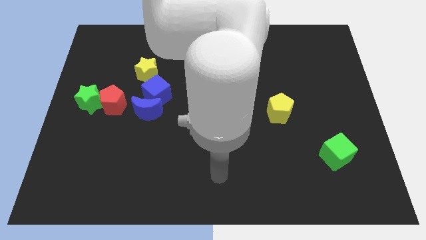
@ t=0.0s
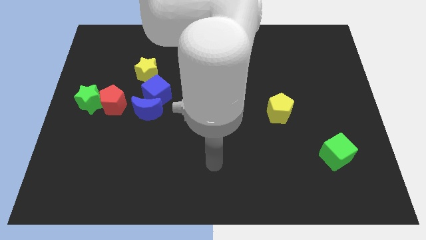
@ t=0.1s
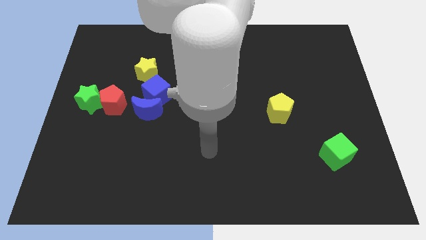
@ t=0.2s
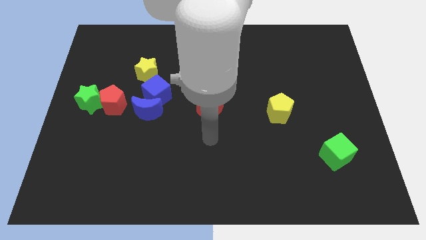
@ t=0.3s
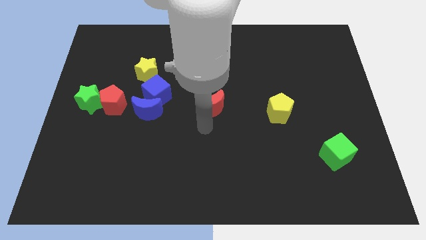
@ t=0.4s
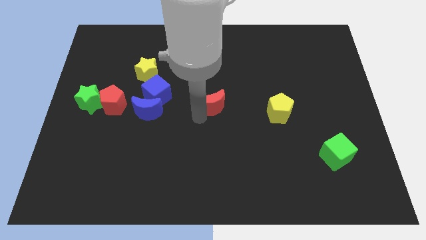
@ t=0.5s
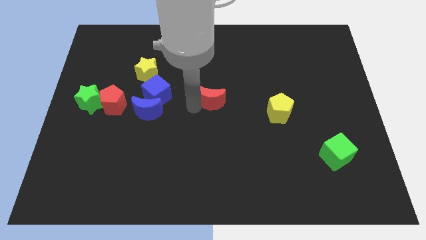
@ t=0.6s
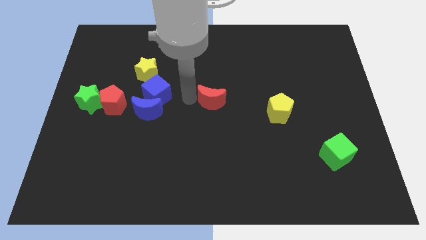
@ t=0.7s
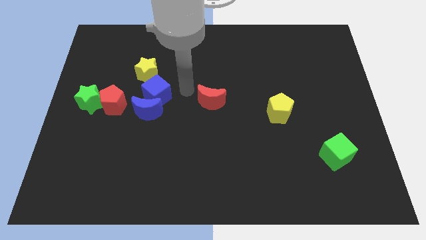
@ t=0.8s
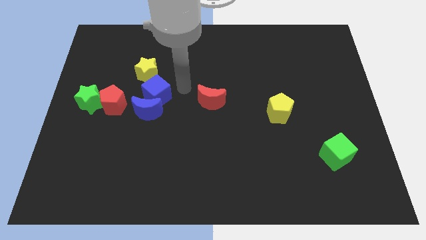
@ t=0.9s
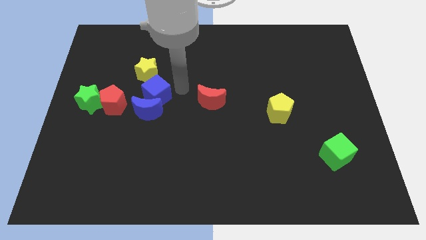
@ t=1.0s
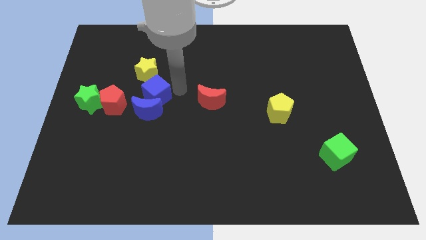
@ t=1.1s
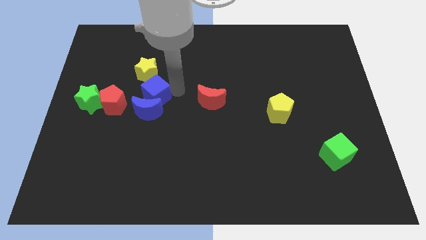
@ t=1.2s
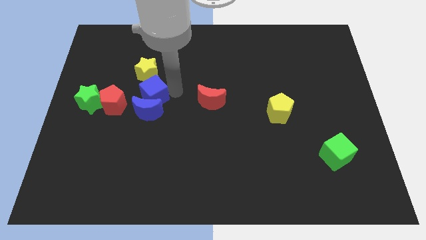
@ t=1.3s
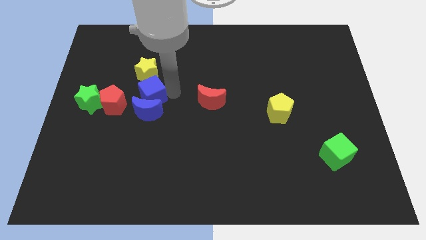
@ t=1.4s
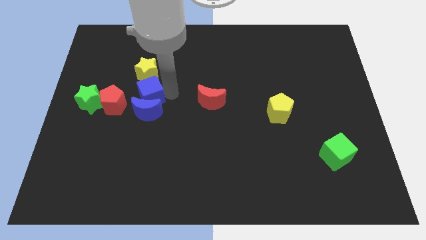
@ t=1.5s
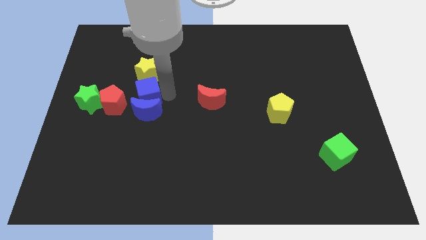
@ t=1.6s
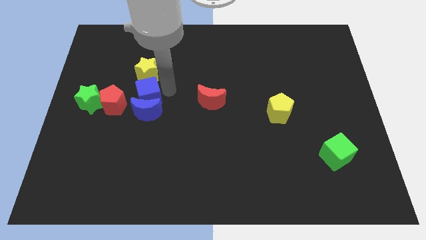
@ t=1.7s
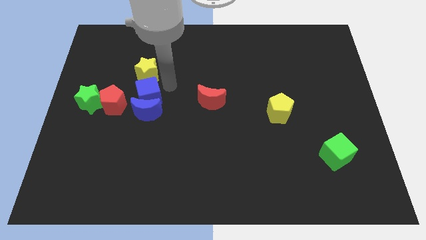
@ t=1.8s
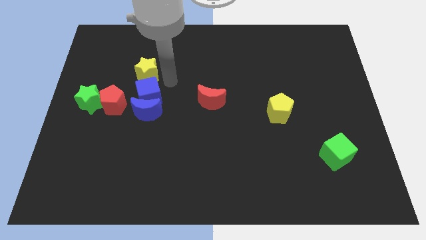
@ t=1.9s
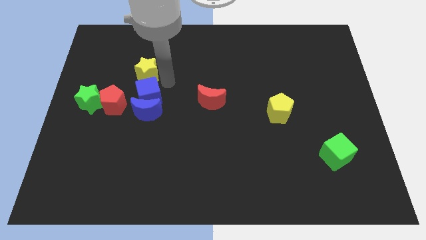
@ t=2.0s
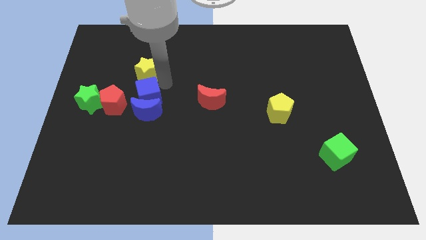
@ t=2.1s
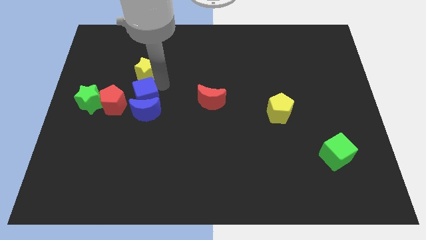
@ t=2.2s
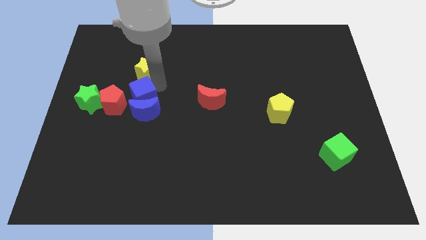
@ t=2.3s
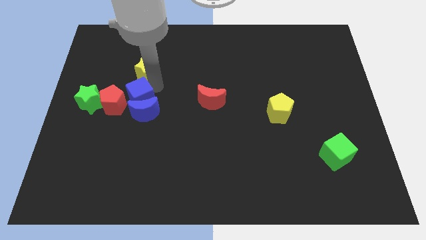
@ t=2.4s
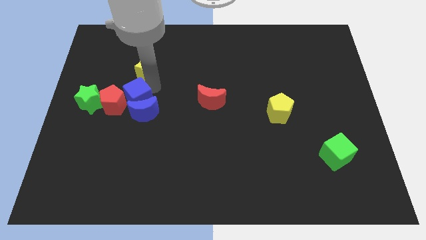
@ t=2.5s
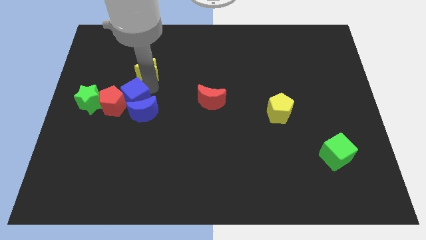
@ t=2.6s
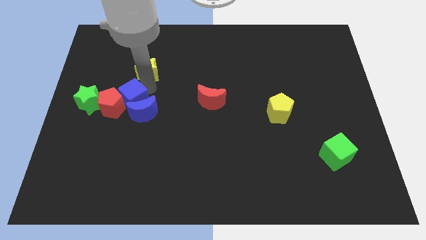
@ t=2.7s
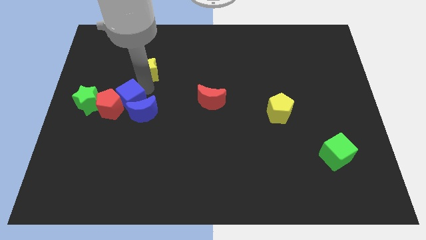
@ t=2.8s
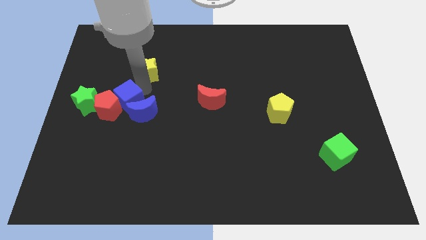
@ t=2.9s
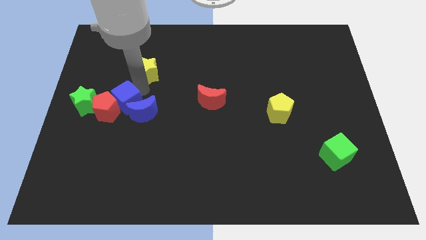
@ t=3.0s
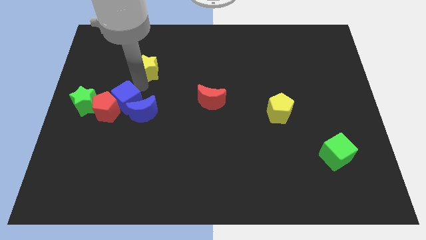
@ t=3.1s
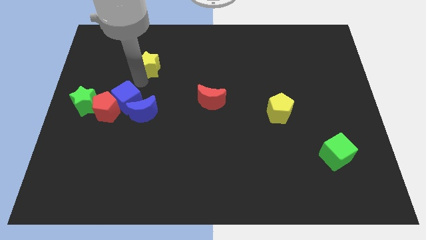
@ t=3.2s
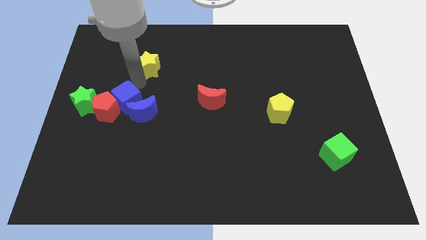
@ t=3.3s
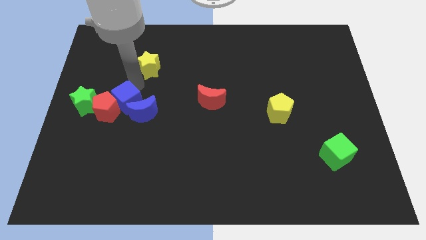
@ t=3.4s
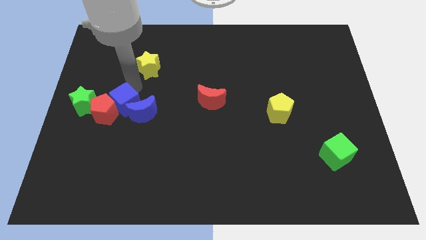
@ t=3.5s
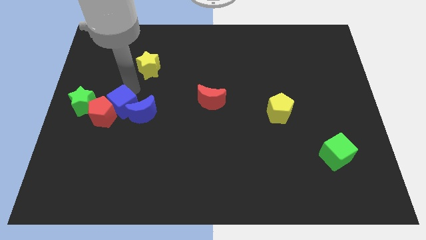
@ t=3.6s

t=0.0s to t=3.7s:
slide the blue cube down and to the left diagonally a bit

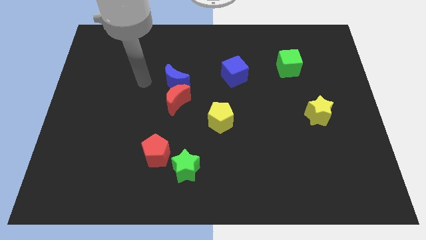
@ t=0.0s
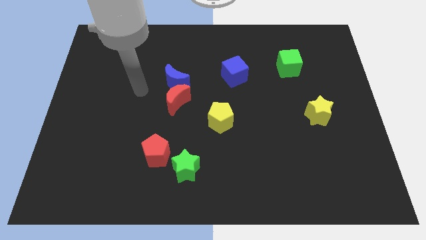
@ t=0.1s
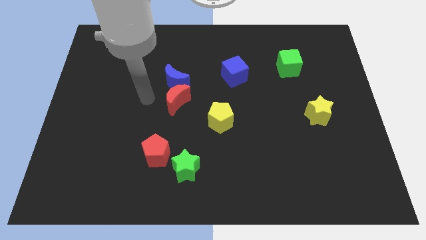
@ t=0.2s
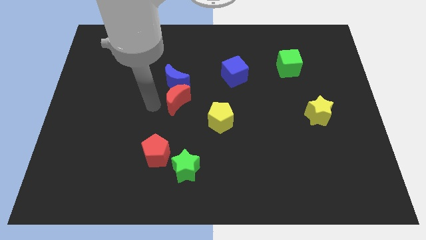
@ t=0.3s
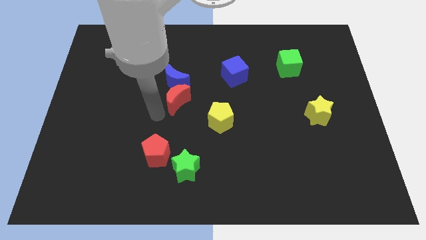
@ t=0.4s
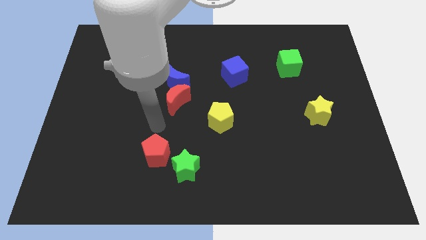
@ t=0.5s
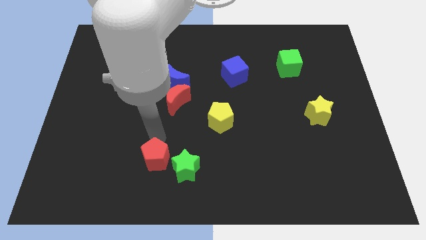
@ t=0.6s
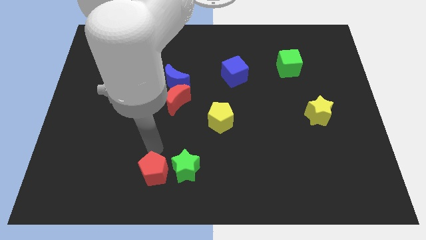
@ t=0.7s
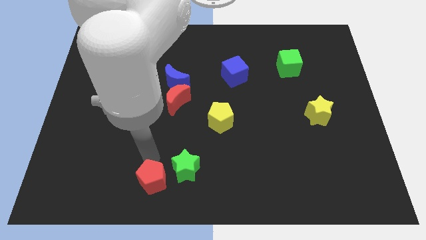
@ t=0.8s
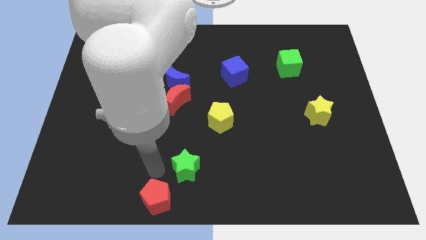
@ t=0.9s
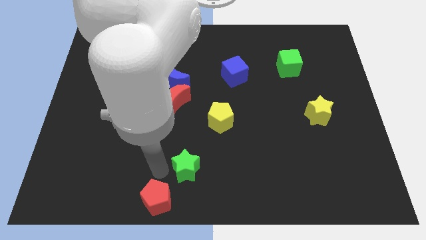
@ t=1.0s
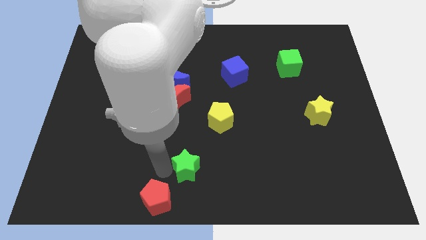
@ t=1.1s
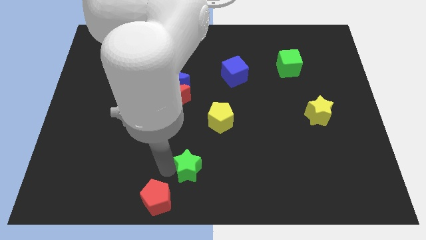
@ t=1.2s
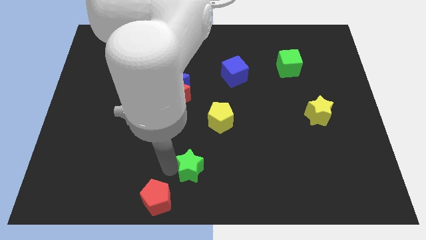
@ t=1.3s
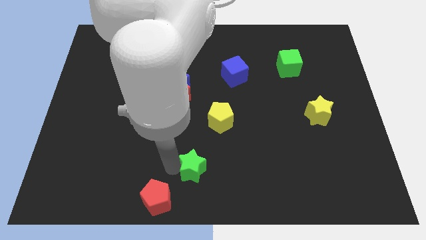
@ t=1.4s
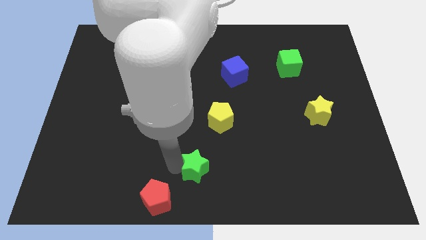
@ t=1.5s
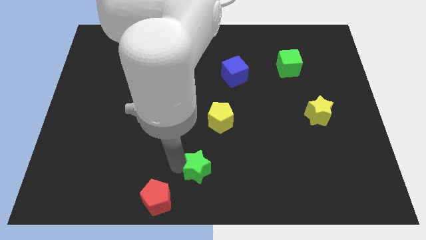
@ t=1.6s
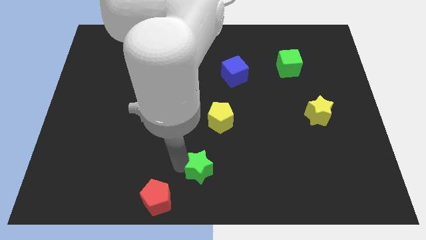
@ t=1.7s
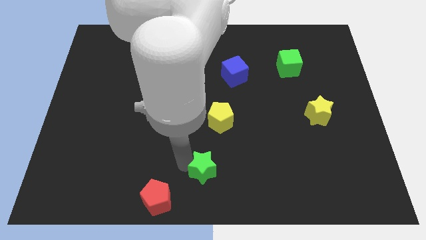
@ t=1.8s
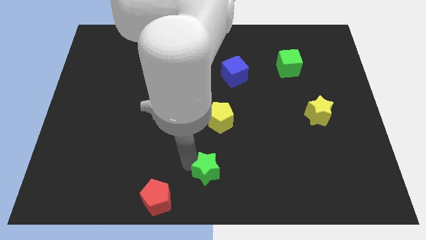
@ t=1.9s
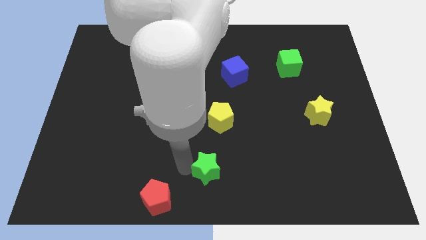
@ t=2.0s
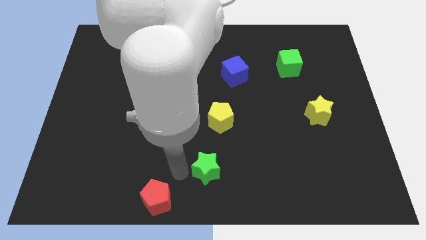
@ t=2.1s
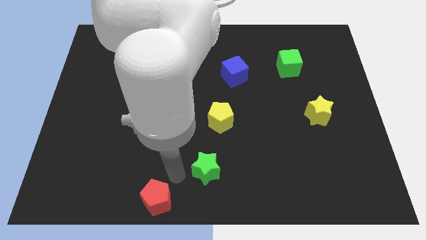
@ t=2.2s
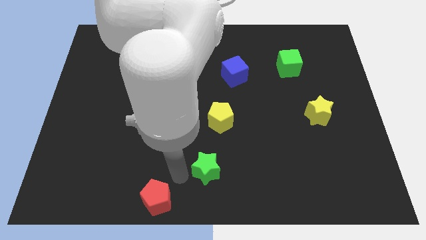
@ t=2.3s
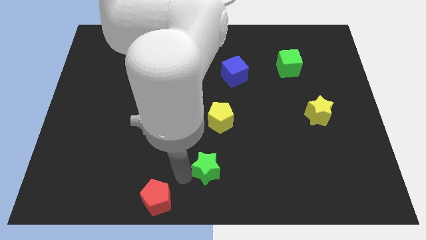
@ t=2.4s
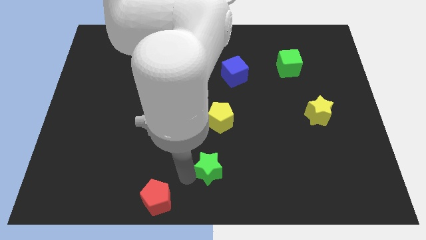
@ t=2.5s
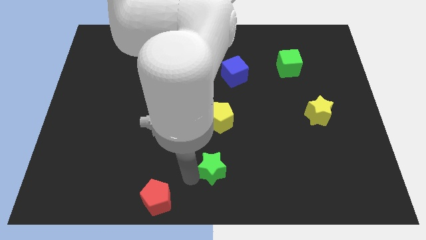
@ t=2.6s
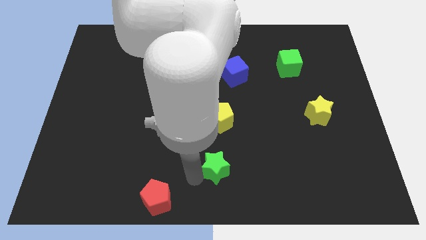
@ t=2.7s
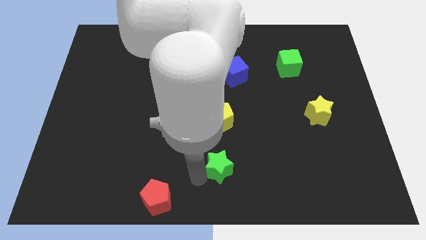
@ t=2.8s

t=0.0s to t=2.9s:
slightly move the green star to the right

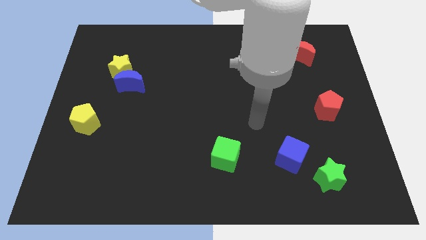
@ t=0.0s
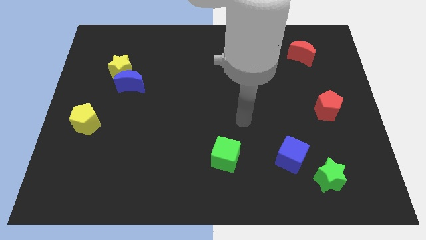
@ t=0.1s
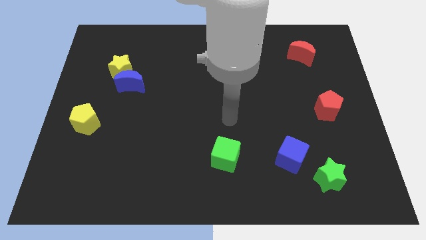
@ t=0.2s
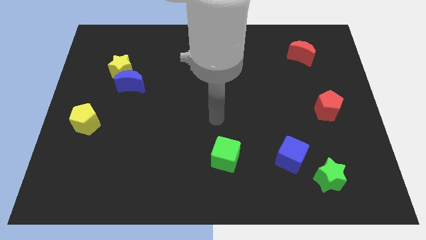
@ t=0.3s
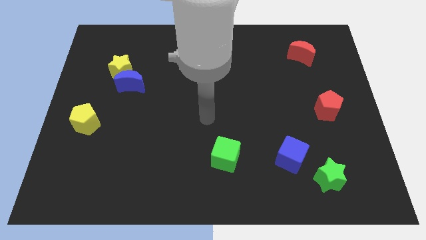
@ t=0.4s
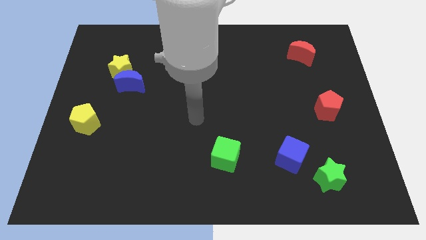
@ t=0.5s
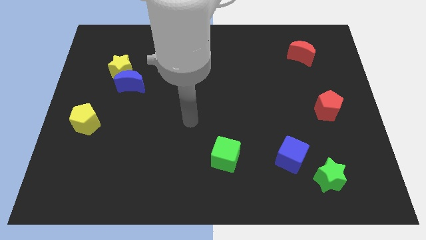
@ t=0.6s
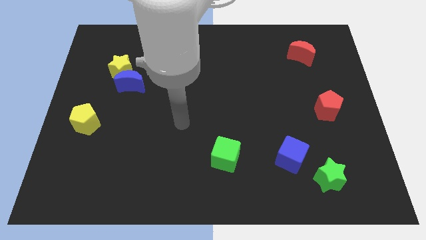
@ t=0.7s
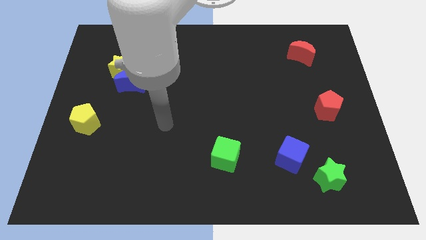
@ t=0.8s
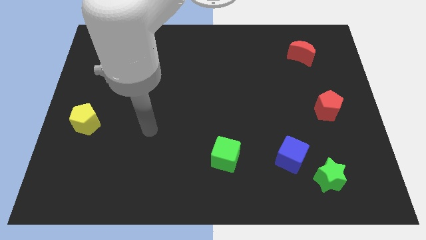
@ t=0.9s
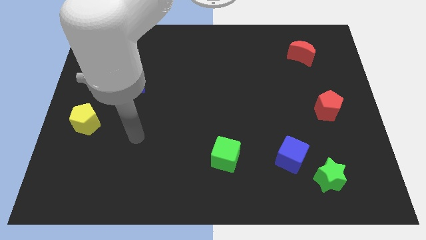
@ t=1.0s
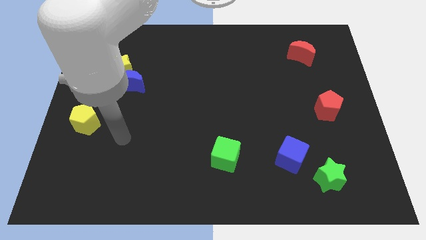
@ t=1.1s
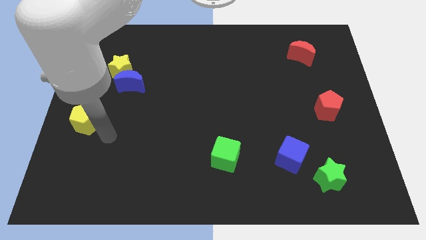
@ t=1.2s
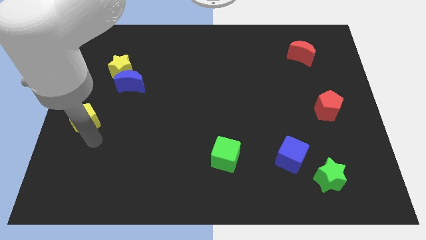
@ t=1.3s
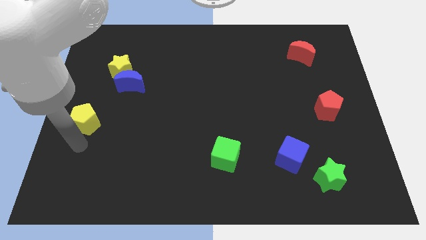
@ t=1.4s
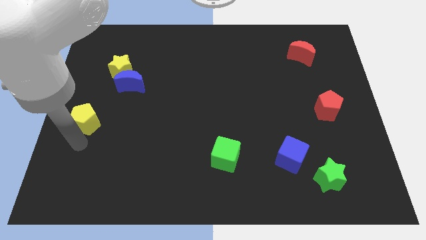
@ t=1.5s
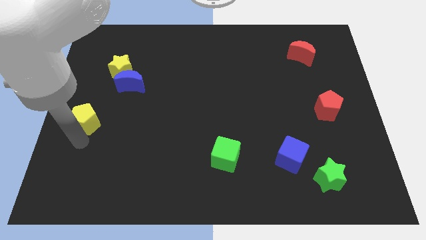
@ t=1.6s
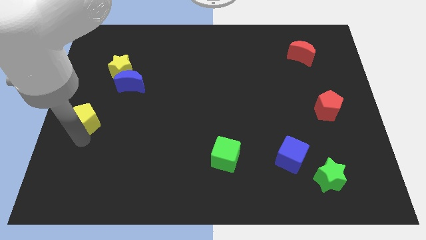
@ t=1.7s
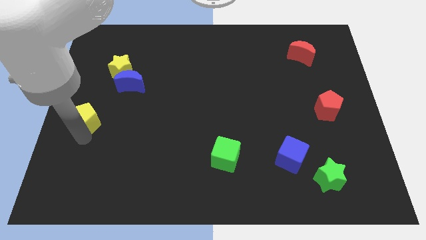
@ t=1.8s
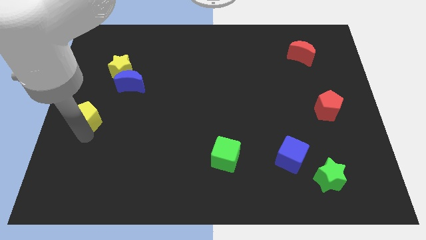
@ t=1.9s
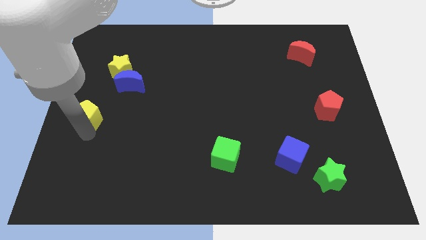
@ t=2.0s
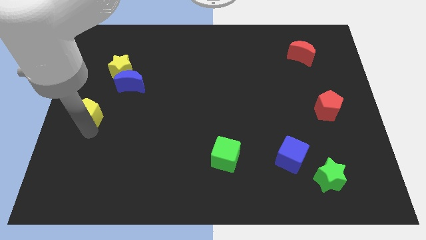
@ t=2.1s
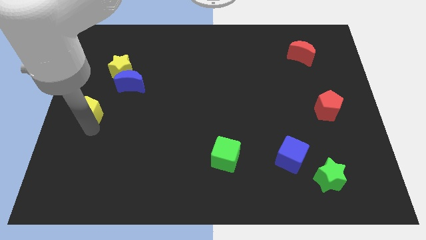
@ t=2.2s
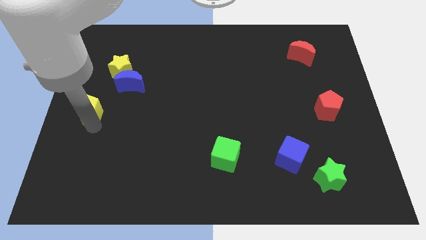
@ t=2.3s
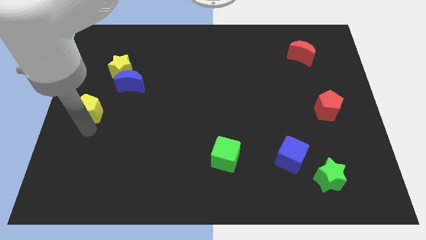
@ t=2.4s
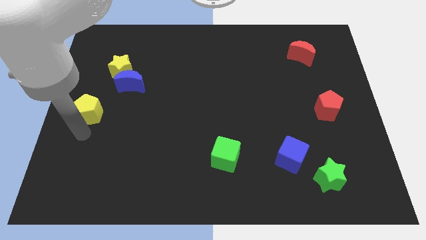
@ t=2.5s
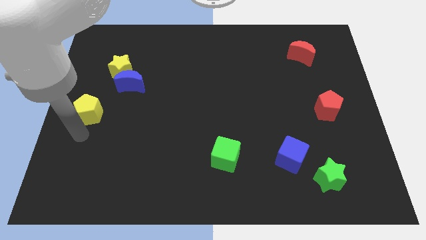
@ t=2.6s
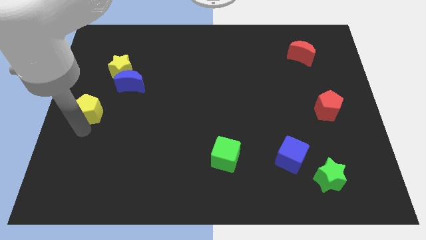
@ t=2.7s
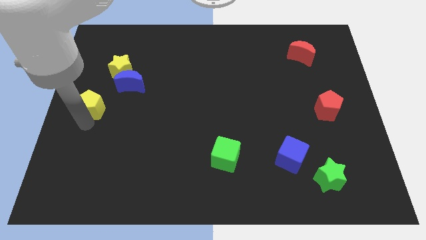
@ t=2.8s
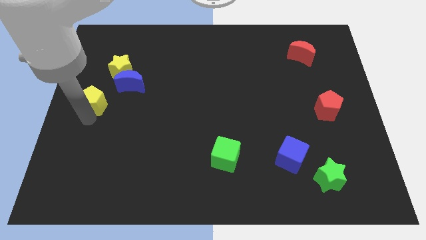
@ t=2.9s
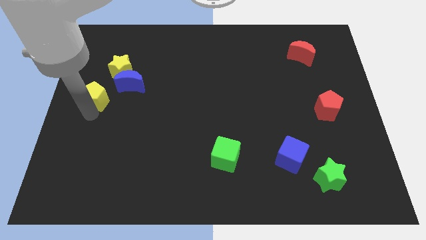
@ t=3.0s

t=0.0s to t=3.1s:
push the yellow pentagon upwards a little
